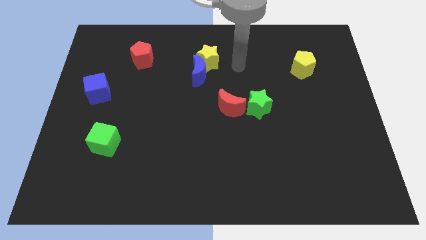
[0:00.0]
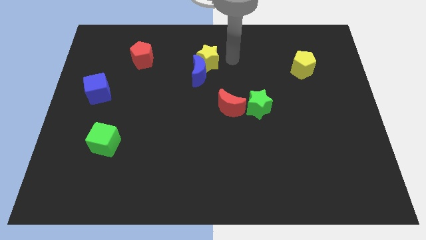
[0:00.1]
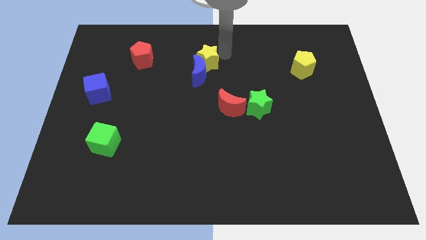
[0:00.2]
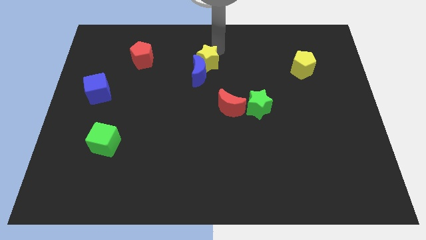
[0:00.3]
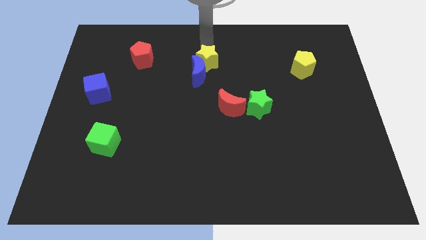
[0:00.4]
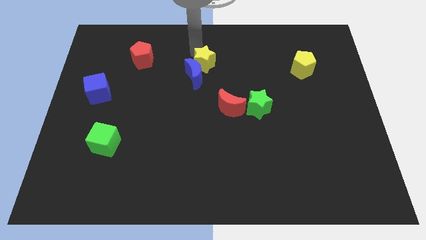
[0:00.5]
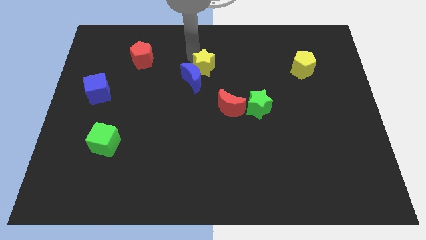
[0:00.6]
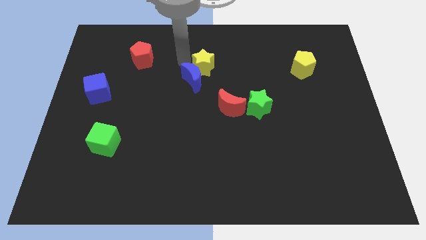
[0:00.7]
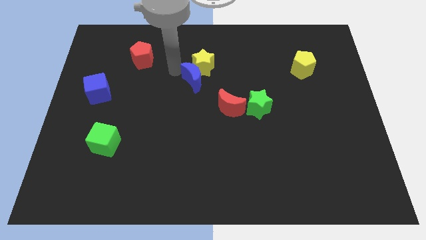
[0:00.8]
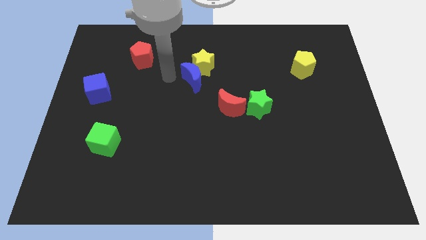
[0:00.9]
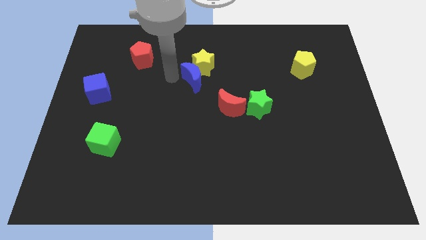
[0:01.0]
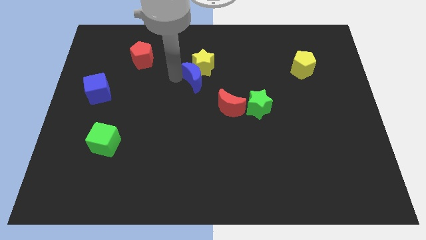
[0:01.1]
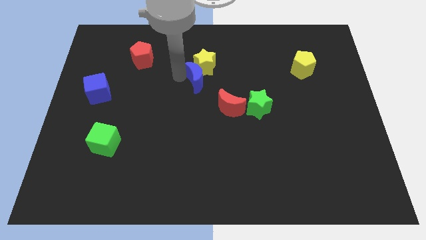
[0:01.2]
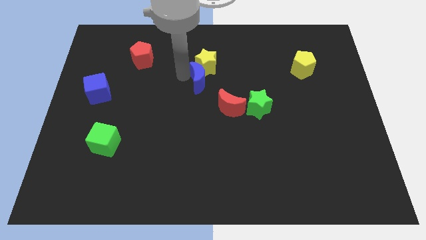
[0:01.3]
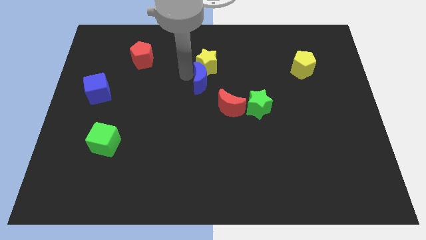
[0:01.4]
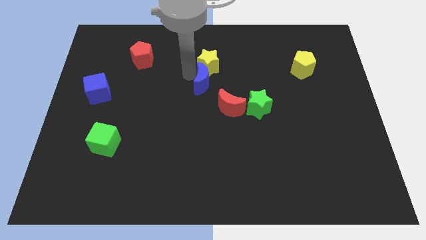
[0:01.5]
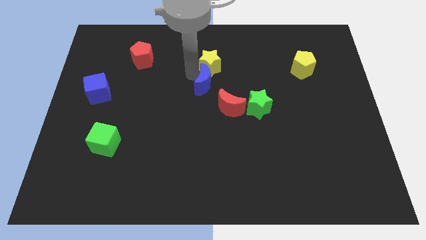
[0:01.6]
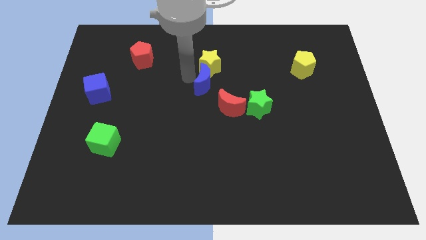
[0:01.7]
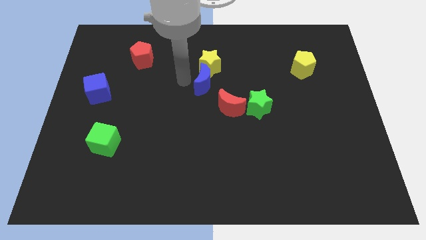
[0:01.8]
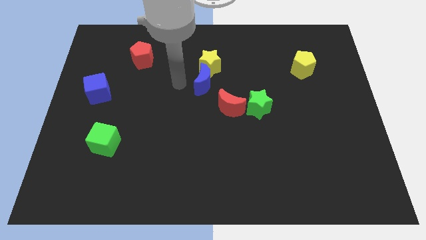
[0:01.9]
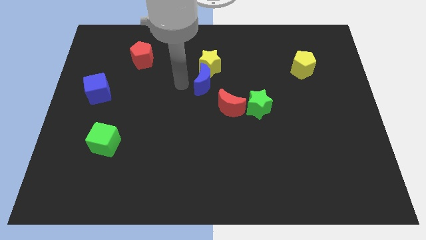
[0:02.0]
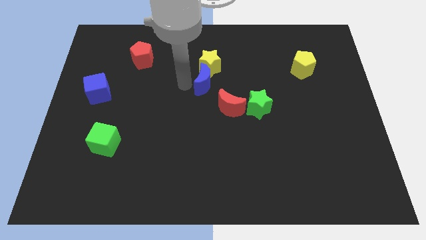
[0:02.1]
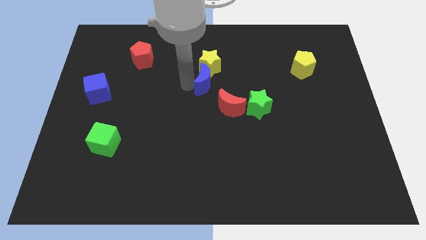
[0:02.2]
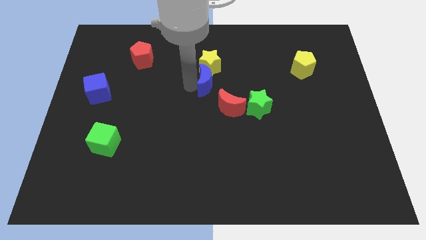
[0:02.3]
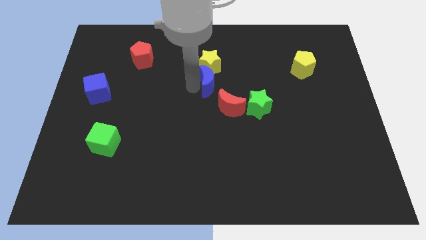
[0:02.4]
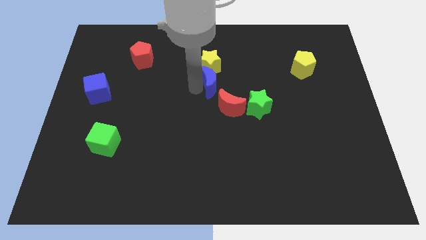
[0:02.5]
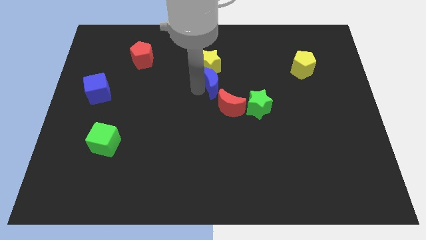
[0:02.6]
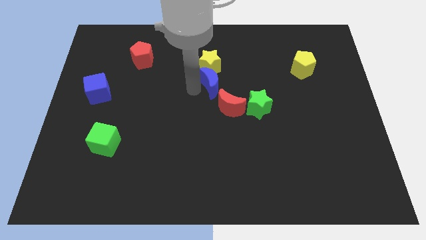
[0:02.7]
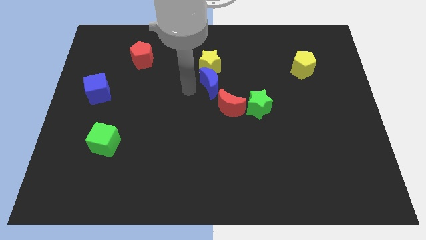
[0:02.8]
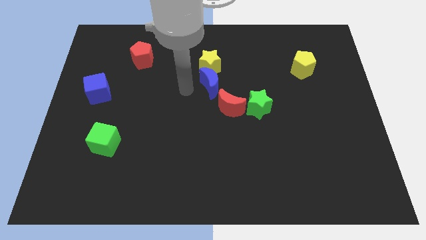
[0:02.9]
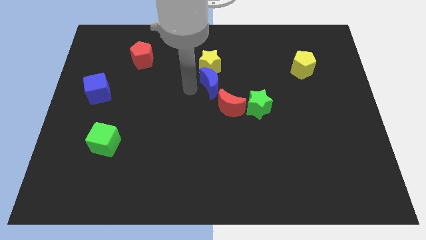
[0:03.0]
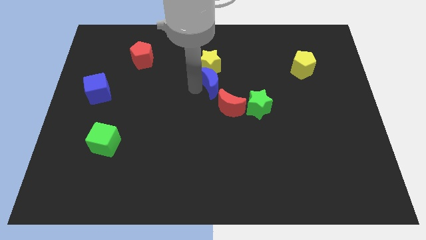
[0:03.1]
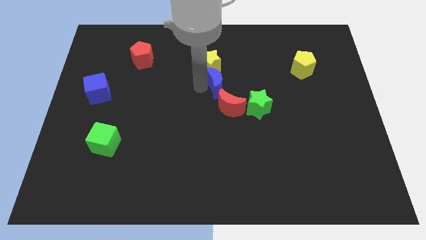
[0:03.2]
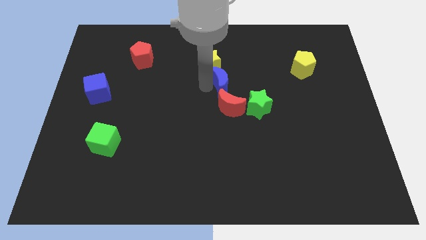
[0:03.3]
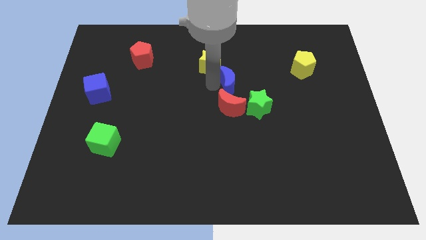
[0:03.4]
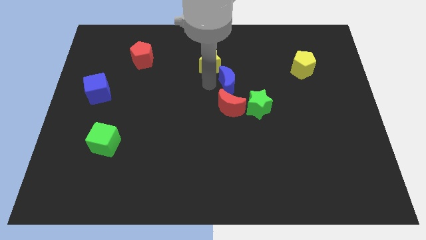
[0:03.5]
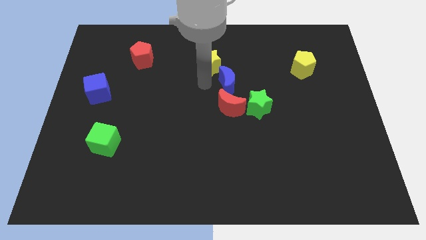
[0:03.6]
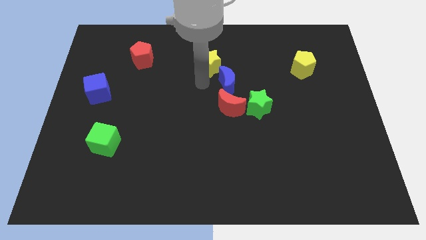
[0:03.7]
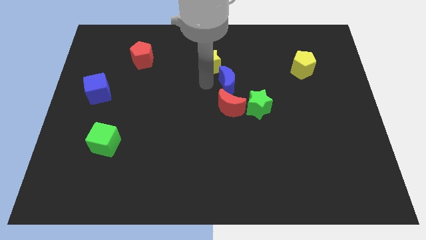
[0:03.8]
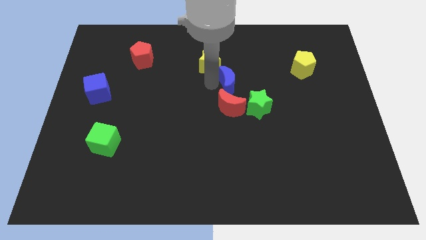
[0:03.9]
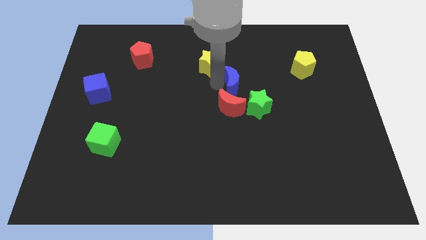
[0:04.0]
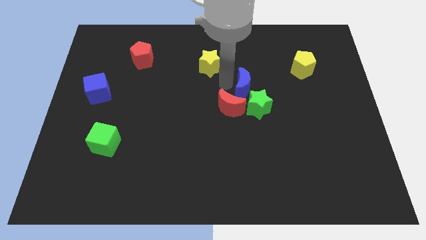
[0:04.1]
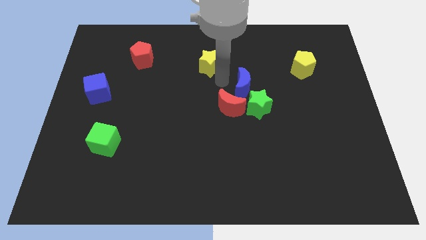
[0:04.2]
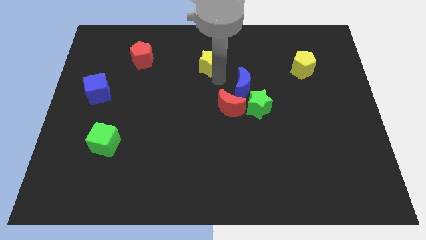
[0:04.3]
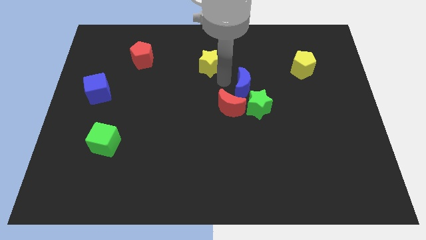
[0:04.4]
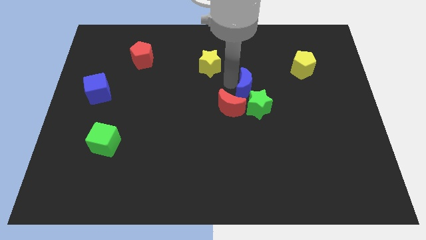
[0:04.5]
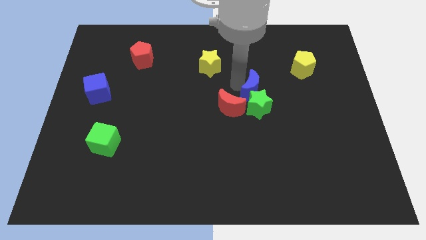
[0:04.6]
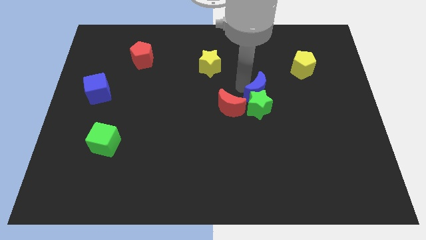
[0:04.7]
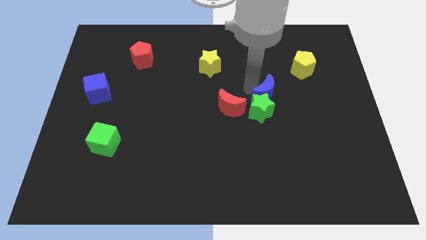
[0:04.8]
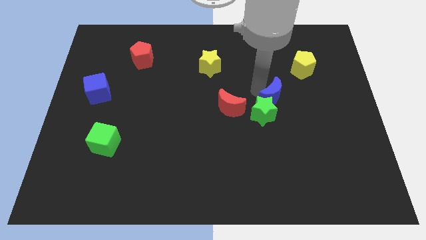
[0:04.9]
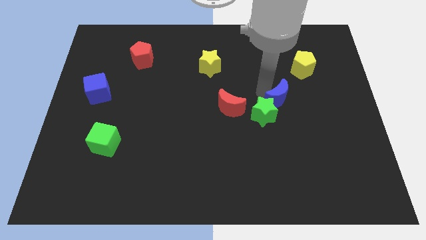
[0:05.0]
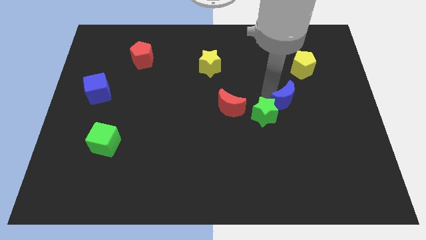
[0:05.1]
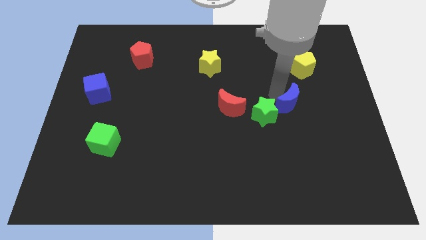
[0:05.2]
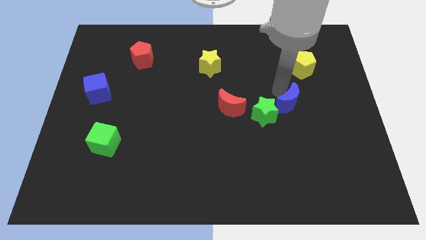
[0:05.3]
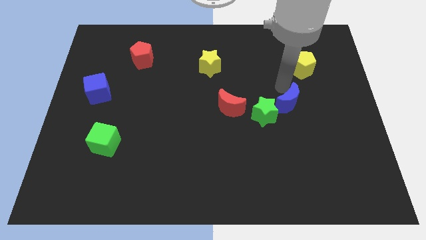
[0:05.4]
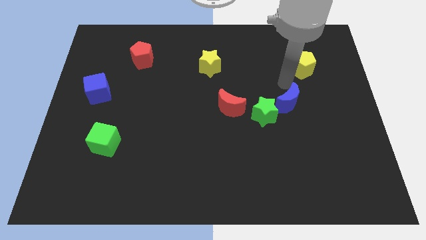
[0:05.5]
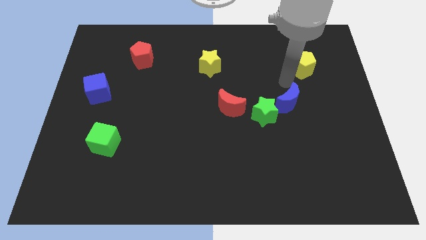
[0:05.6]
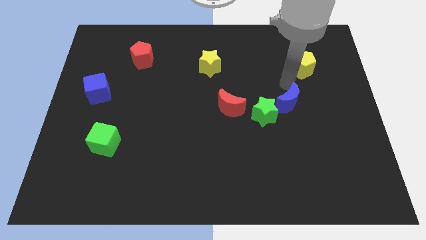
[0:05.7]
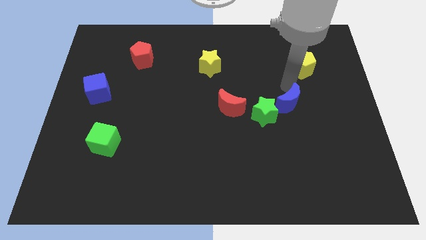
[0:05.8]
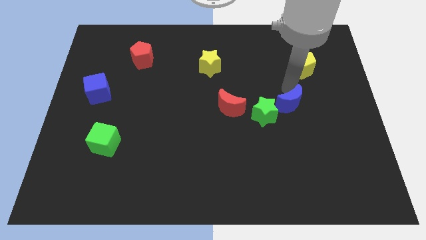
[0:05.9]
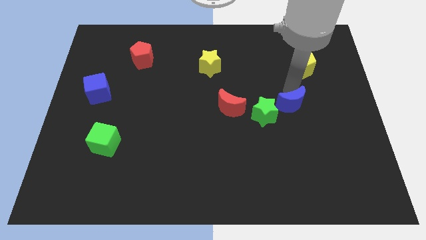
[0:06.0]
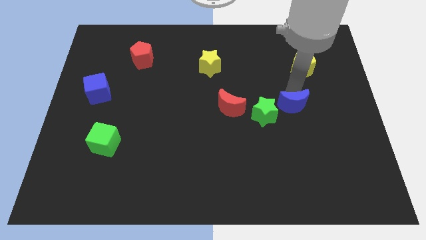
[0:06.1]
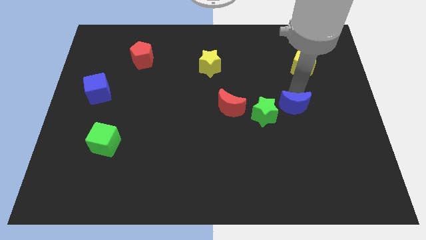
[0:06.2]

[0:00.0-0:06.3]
push the blue moon down and to the right

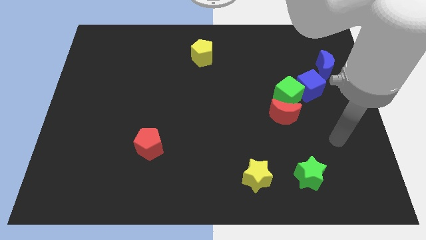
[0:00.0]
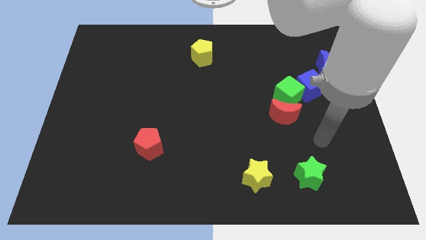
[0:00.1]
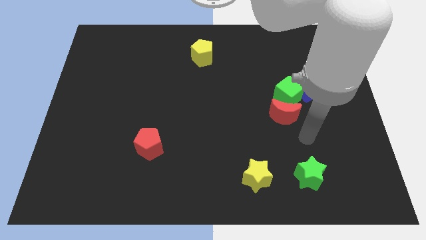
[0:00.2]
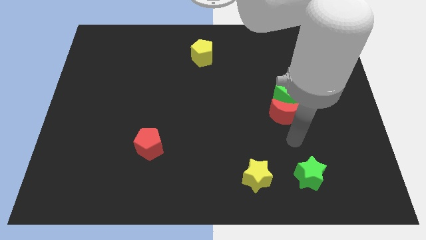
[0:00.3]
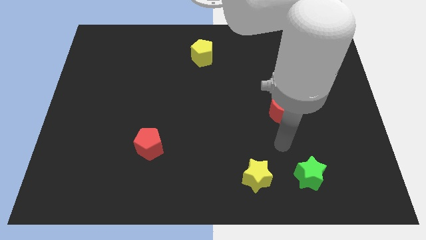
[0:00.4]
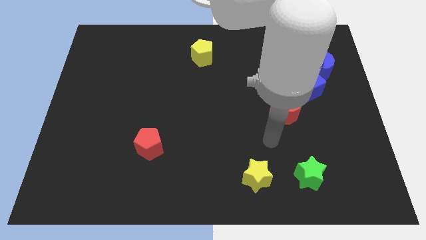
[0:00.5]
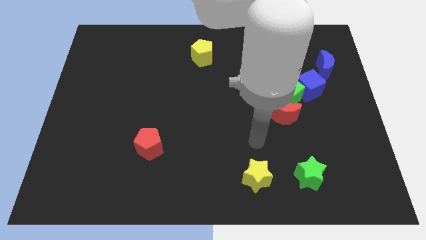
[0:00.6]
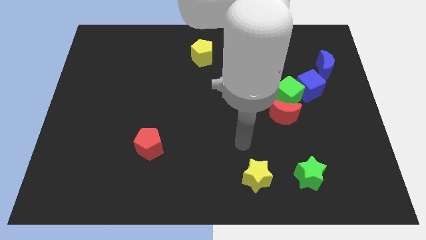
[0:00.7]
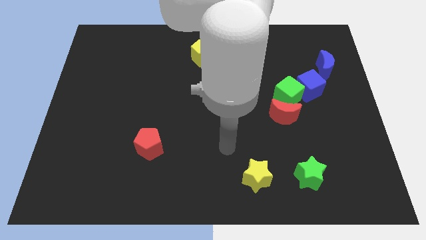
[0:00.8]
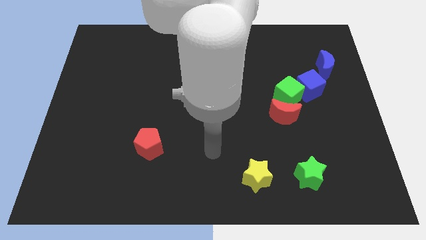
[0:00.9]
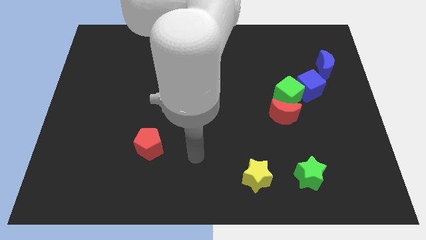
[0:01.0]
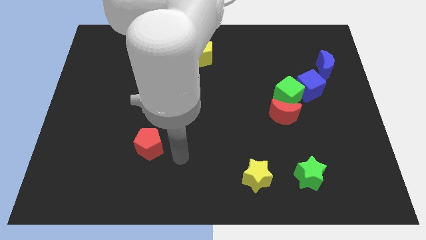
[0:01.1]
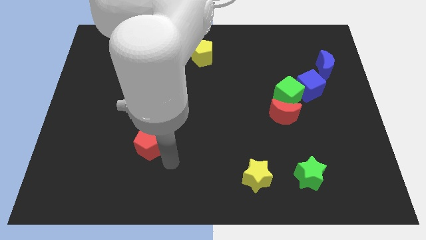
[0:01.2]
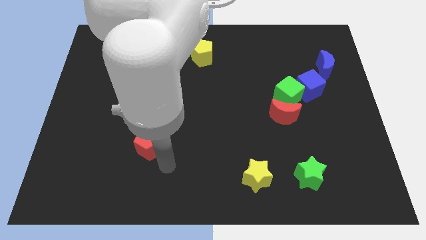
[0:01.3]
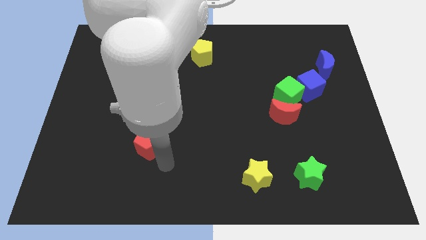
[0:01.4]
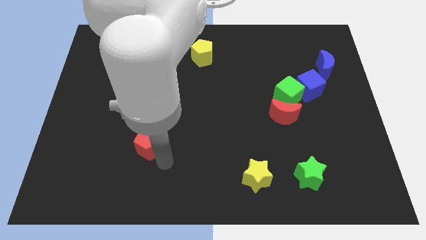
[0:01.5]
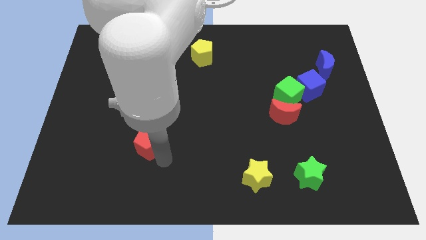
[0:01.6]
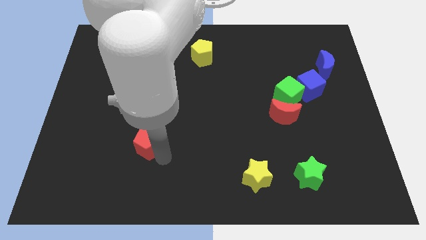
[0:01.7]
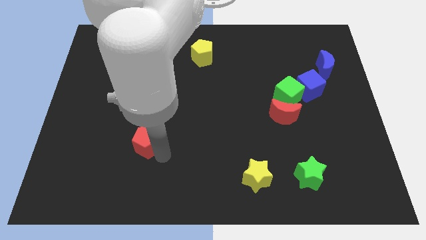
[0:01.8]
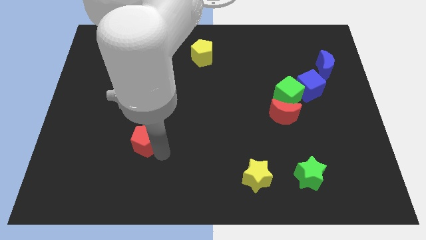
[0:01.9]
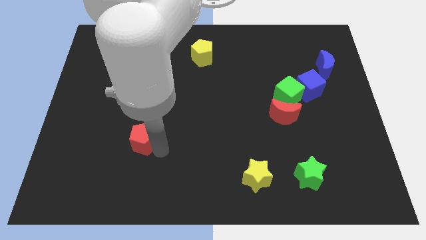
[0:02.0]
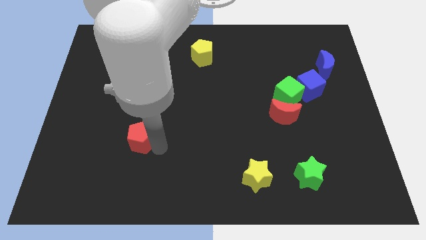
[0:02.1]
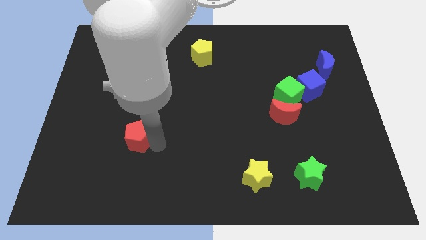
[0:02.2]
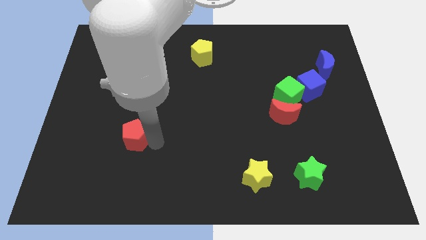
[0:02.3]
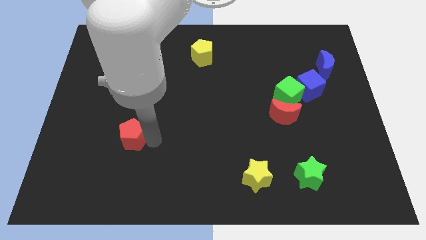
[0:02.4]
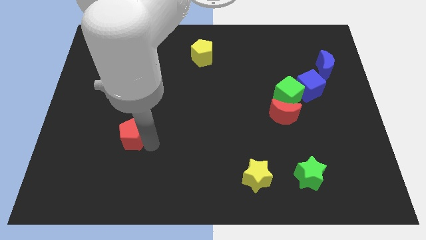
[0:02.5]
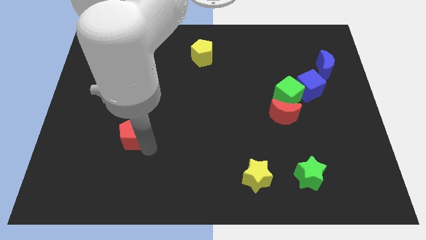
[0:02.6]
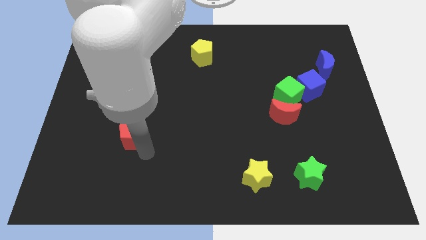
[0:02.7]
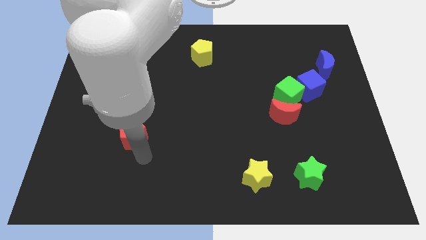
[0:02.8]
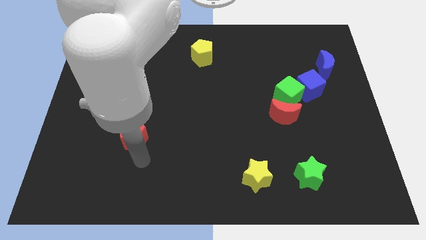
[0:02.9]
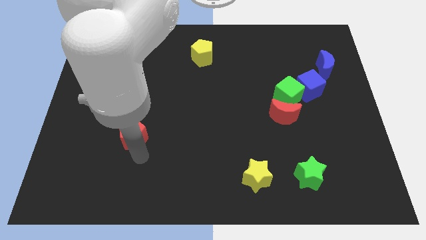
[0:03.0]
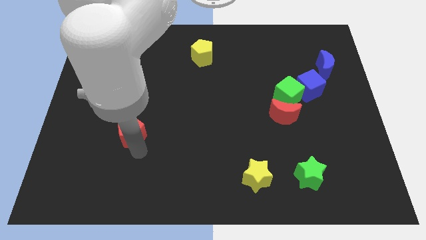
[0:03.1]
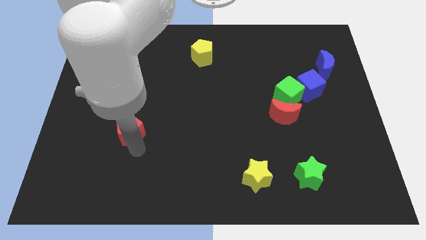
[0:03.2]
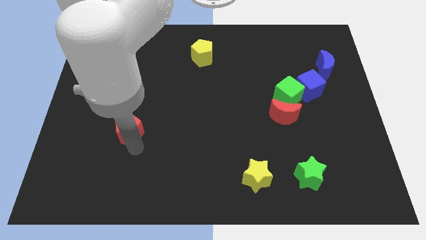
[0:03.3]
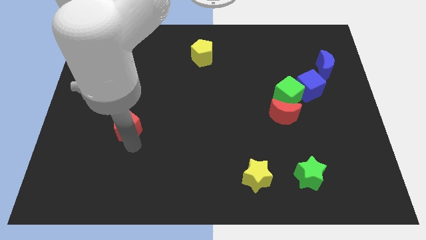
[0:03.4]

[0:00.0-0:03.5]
slide the red pentagon somewhat diagonally up and left
